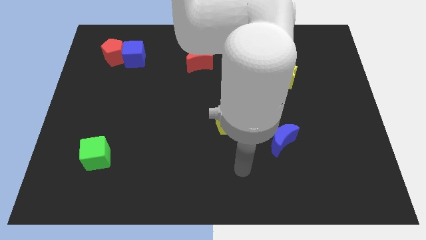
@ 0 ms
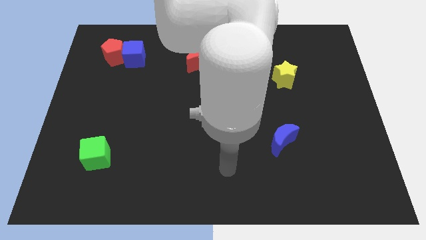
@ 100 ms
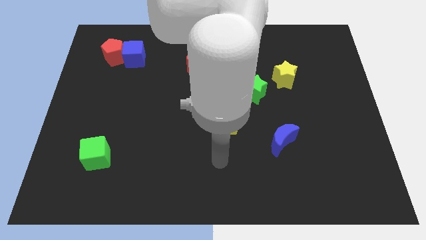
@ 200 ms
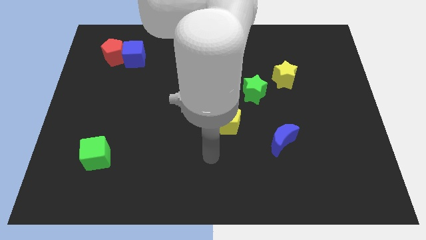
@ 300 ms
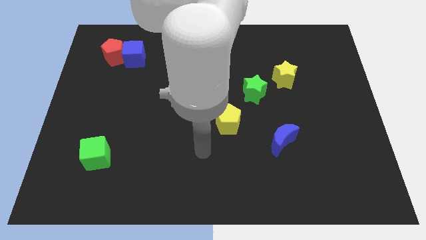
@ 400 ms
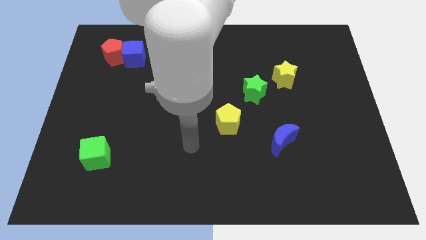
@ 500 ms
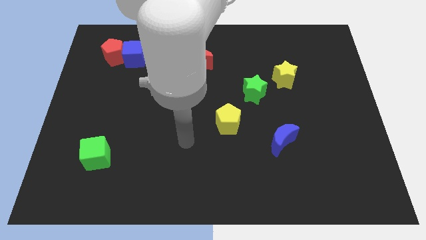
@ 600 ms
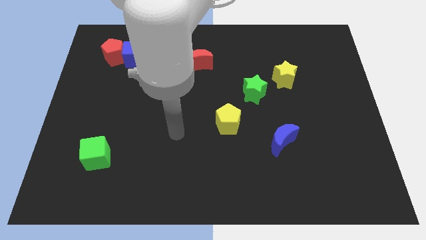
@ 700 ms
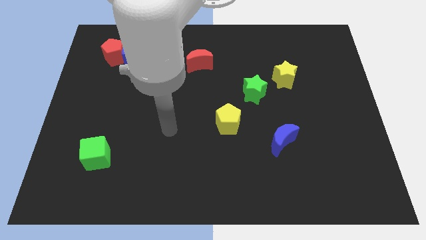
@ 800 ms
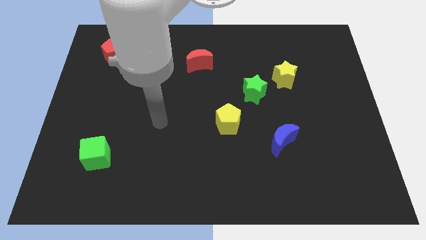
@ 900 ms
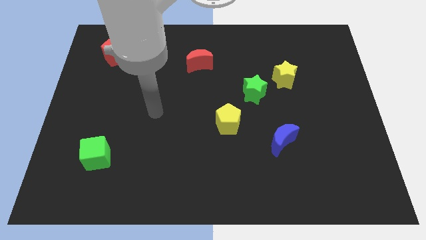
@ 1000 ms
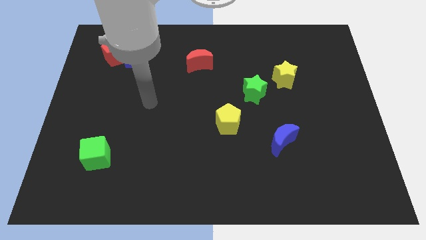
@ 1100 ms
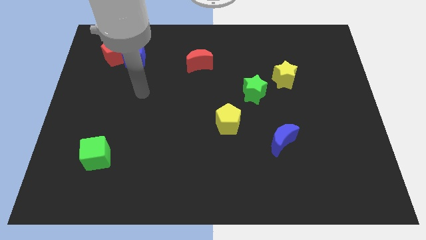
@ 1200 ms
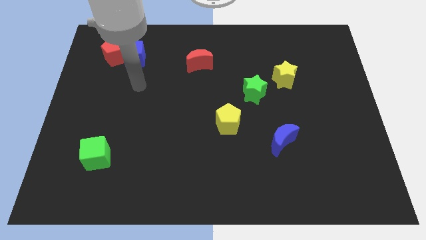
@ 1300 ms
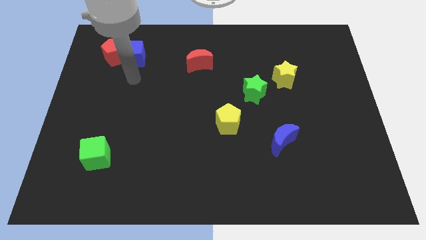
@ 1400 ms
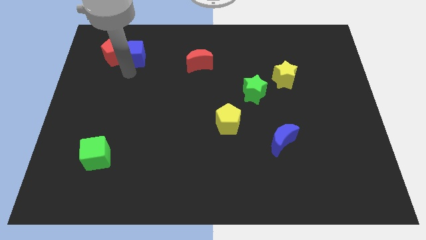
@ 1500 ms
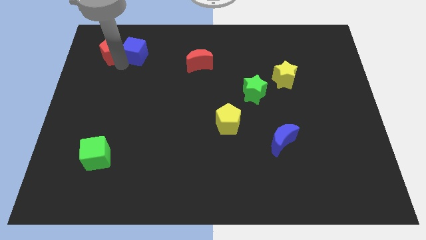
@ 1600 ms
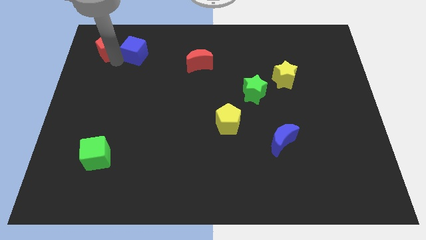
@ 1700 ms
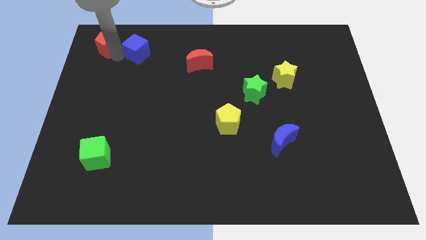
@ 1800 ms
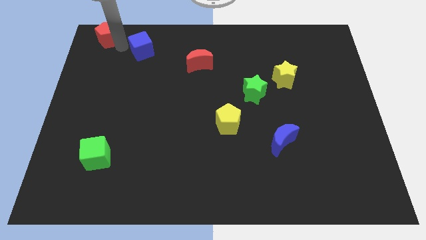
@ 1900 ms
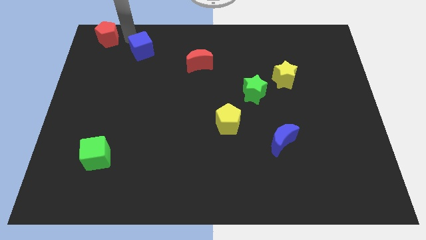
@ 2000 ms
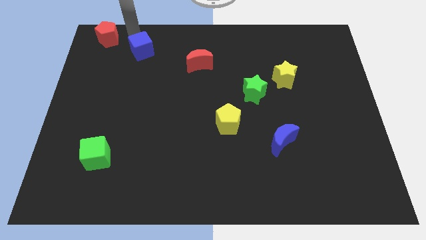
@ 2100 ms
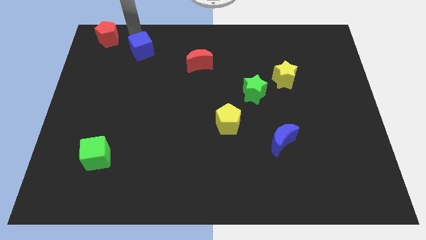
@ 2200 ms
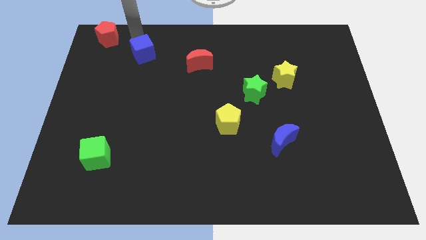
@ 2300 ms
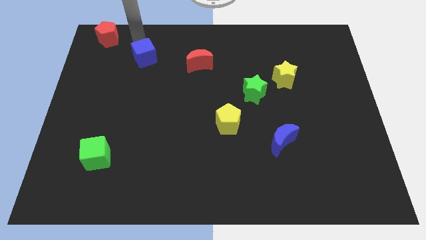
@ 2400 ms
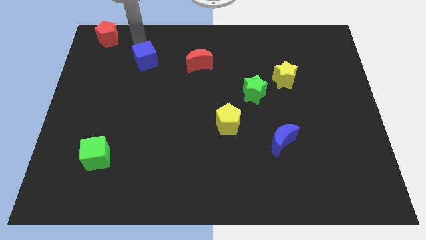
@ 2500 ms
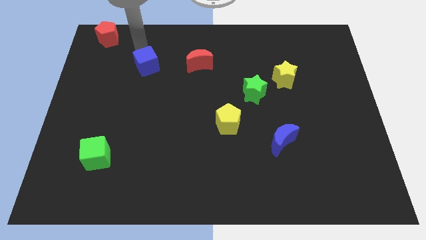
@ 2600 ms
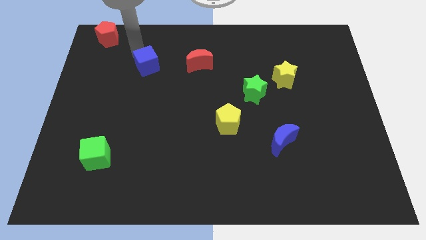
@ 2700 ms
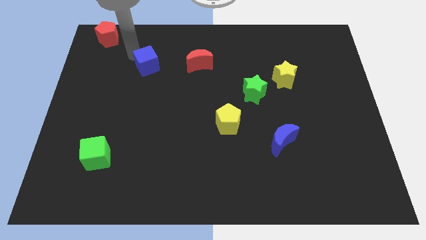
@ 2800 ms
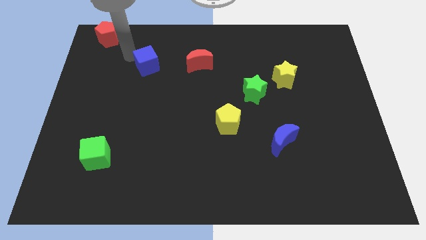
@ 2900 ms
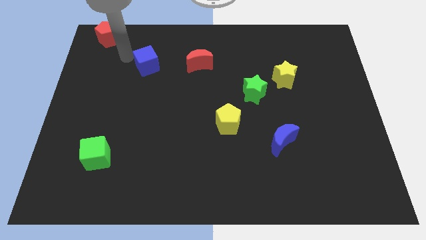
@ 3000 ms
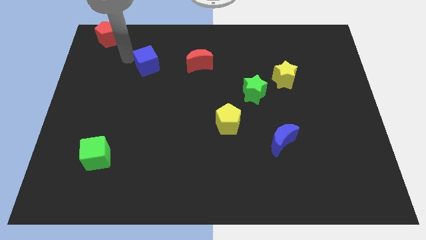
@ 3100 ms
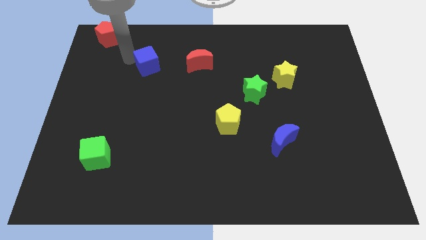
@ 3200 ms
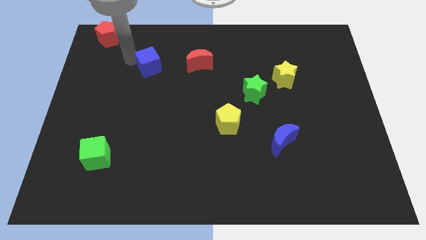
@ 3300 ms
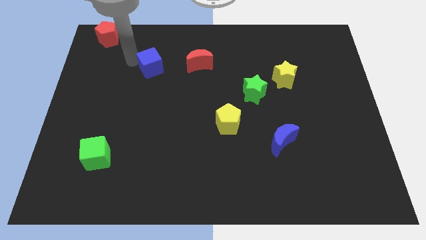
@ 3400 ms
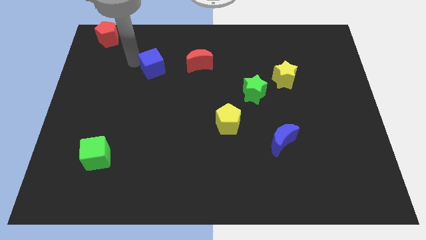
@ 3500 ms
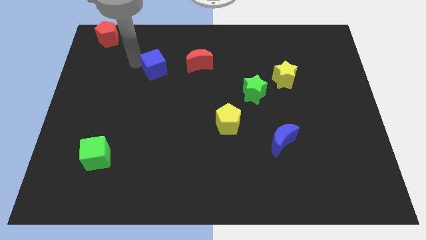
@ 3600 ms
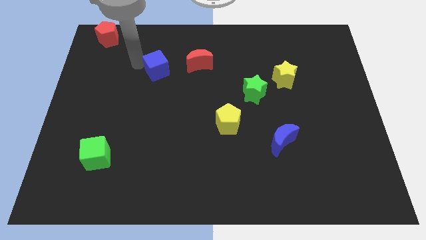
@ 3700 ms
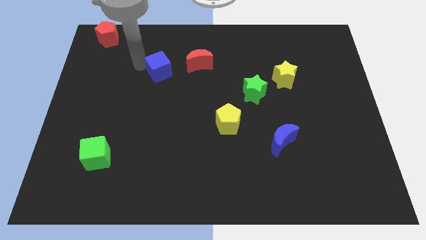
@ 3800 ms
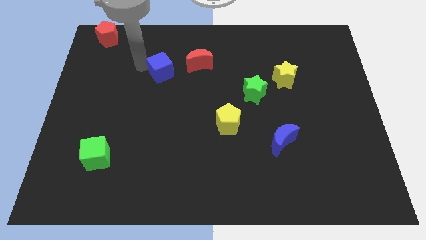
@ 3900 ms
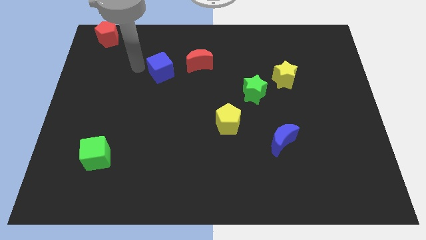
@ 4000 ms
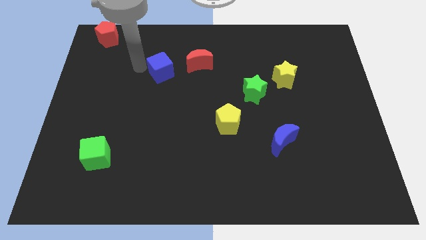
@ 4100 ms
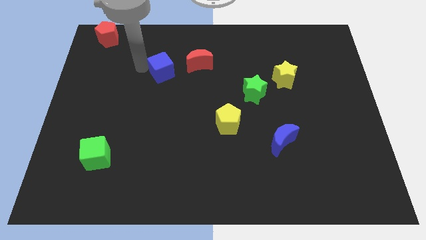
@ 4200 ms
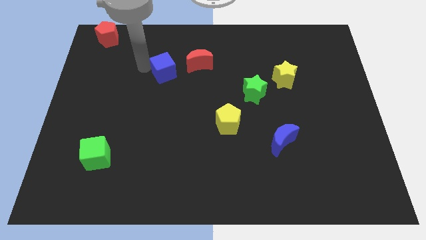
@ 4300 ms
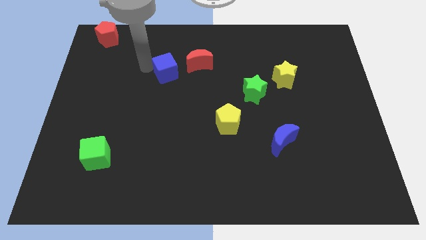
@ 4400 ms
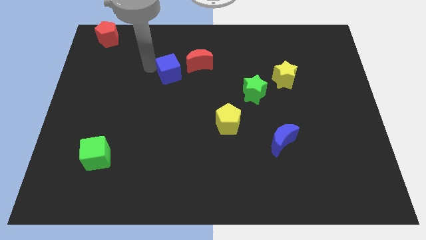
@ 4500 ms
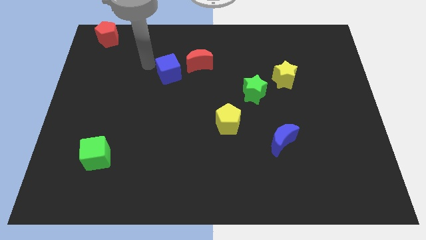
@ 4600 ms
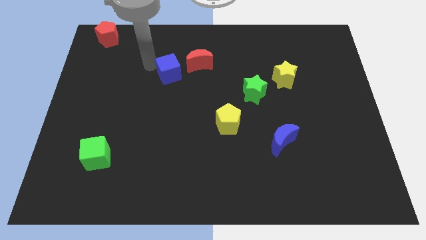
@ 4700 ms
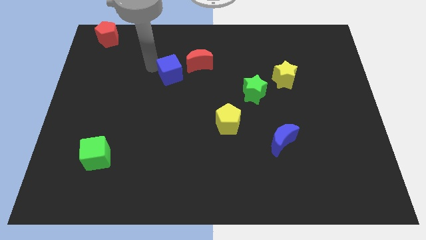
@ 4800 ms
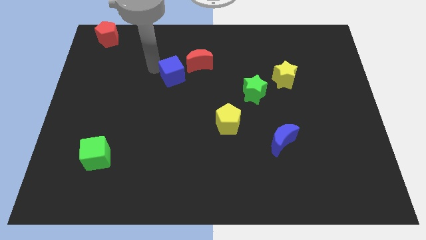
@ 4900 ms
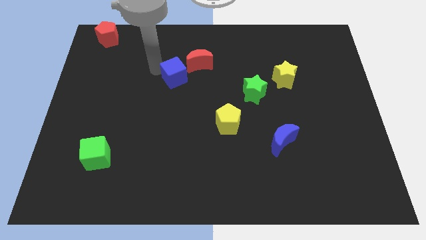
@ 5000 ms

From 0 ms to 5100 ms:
slide the blue cube to the center

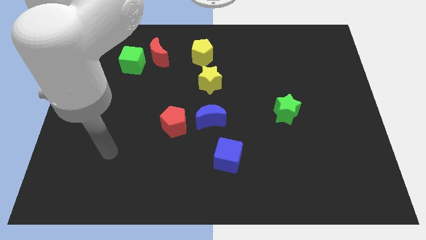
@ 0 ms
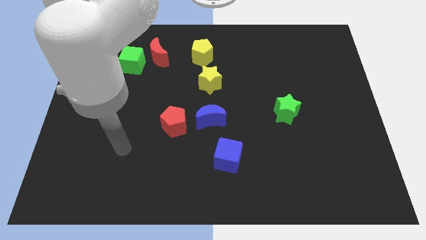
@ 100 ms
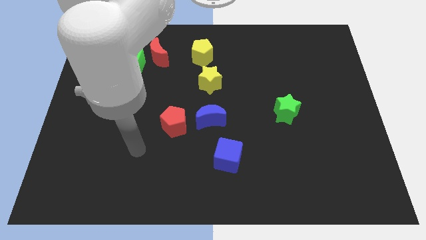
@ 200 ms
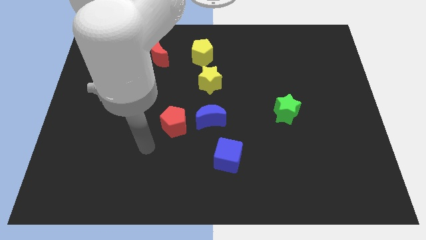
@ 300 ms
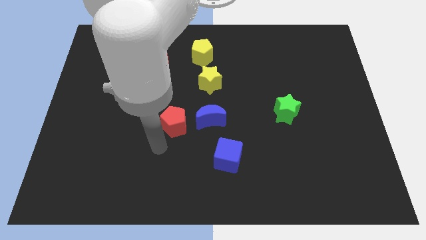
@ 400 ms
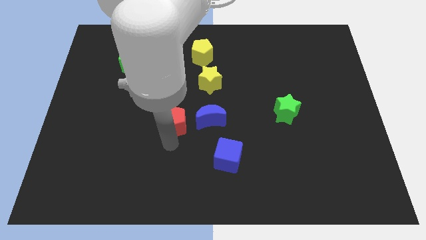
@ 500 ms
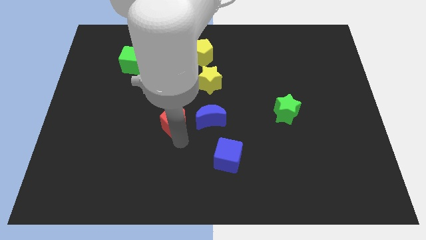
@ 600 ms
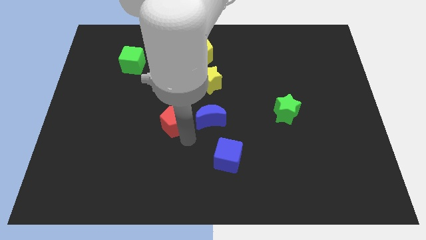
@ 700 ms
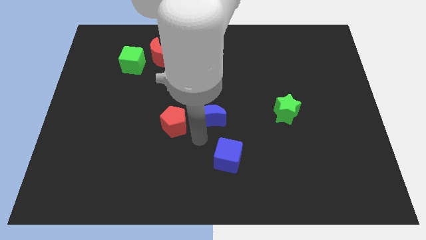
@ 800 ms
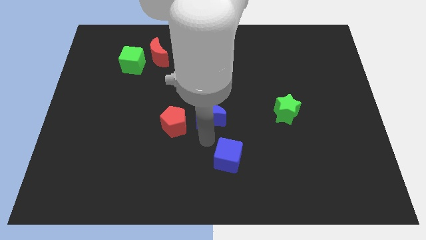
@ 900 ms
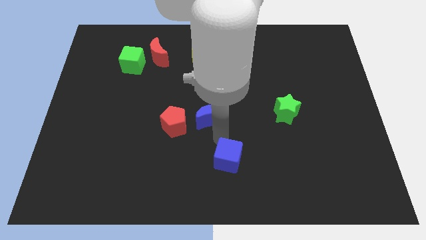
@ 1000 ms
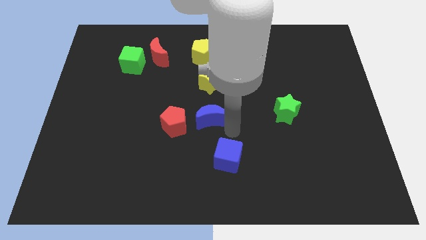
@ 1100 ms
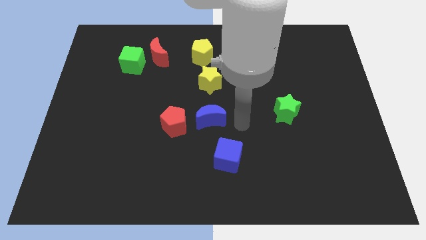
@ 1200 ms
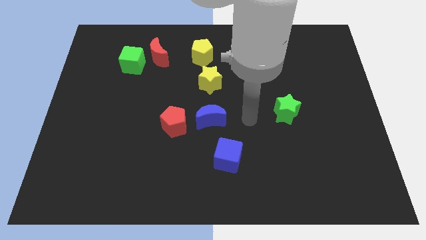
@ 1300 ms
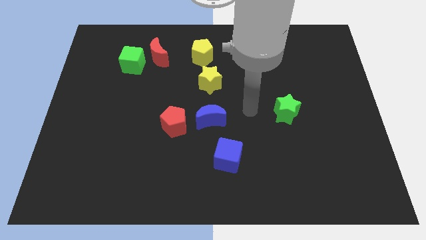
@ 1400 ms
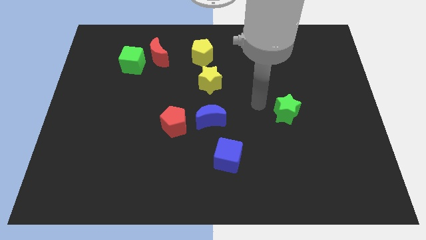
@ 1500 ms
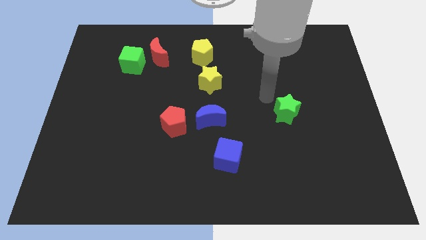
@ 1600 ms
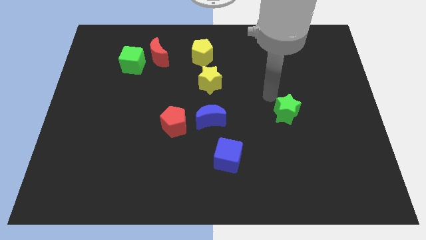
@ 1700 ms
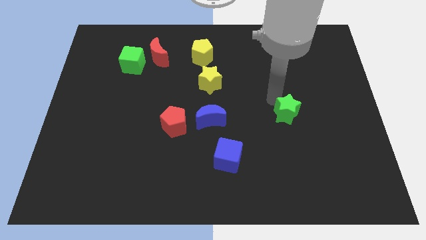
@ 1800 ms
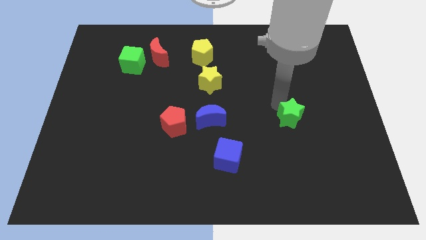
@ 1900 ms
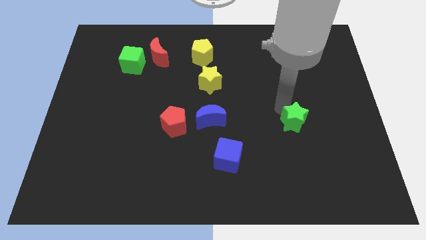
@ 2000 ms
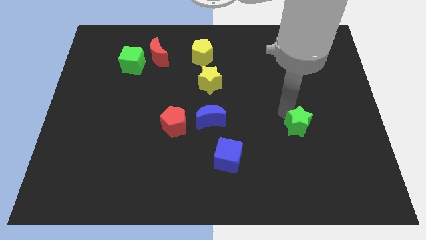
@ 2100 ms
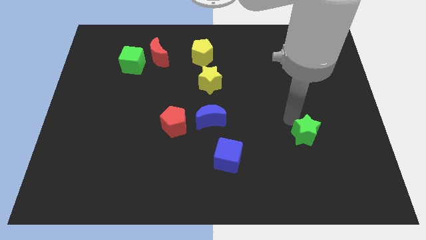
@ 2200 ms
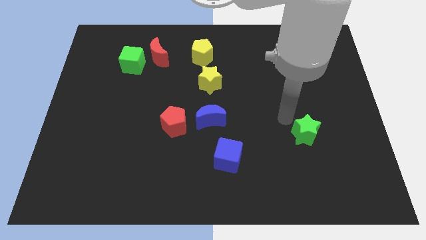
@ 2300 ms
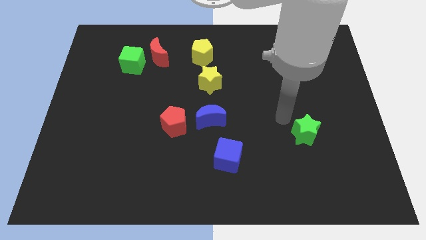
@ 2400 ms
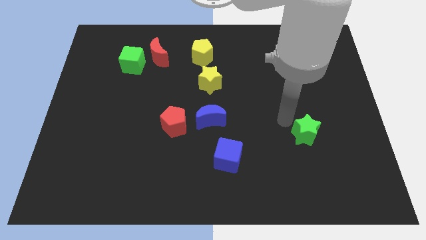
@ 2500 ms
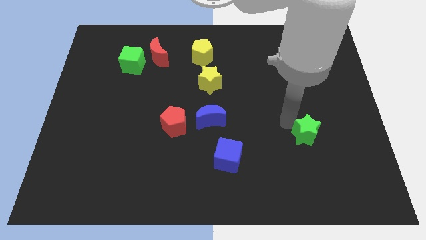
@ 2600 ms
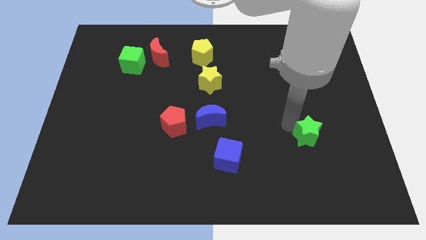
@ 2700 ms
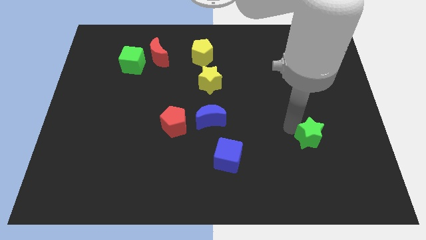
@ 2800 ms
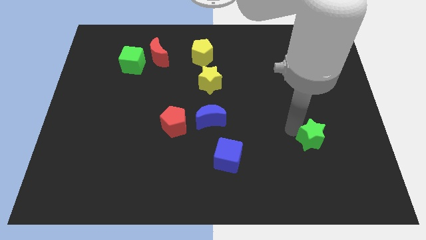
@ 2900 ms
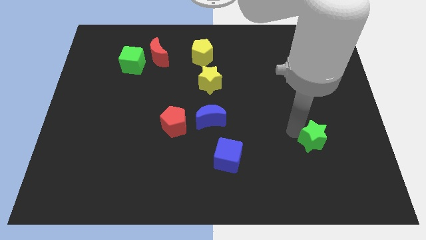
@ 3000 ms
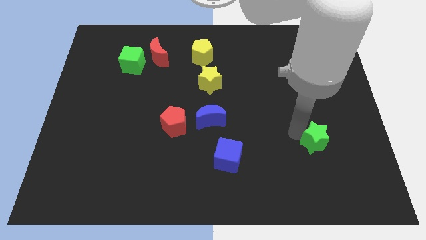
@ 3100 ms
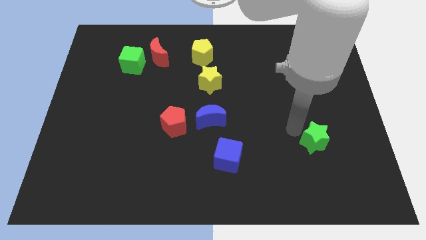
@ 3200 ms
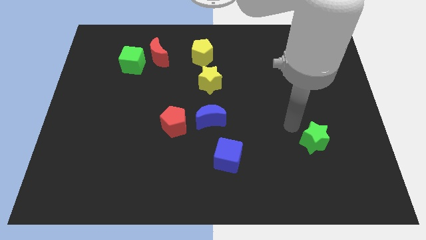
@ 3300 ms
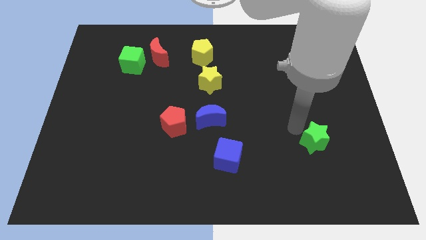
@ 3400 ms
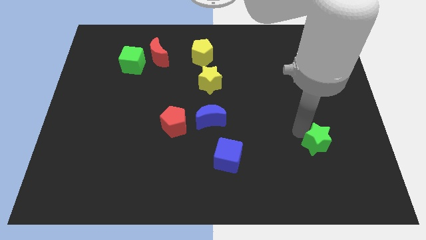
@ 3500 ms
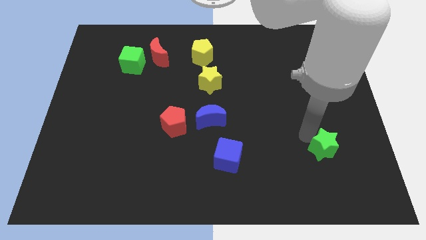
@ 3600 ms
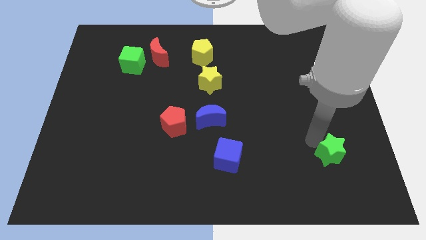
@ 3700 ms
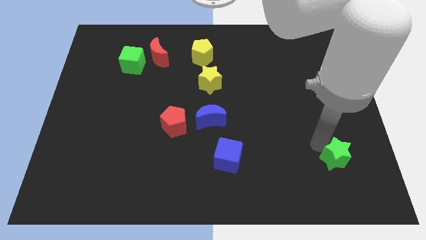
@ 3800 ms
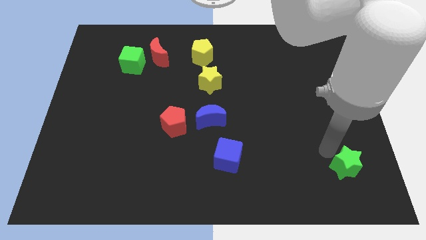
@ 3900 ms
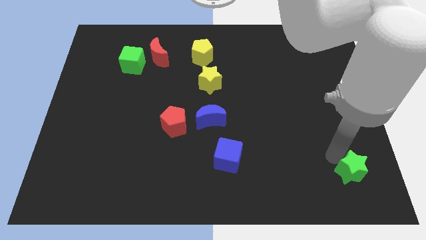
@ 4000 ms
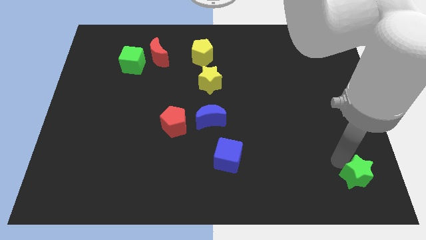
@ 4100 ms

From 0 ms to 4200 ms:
slide the green star to the bottom right of the board
